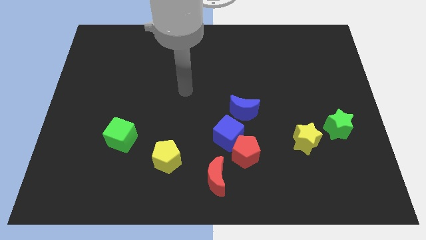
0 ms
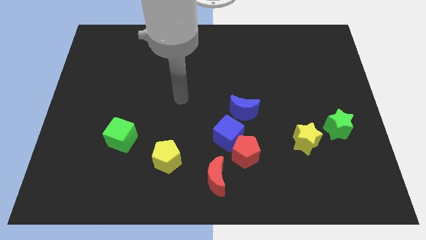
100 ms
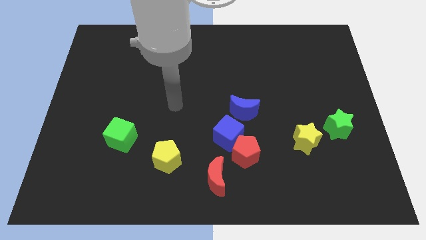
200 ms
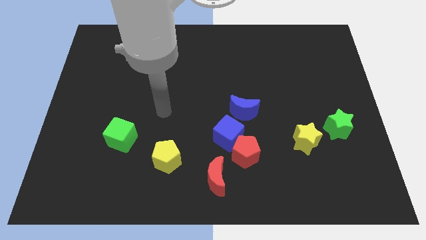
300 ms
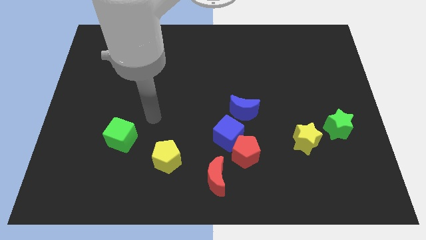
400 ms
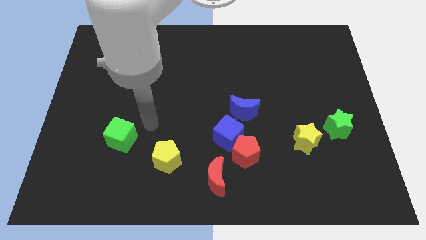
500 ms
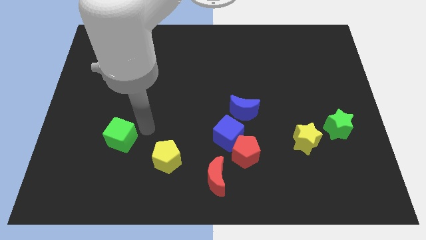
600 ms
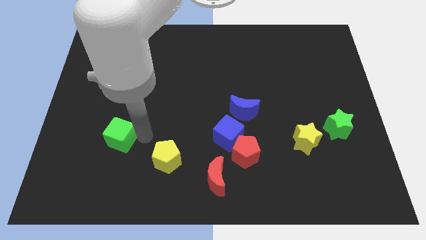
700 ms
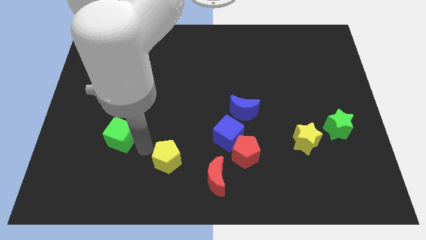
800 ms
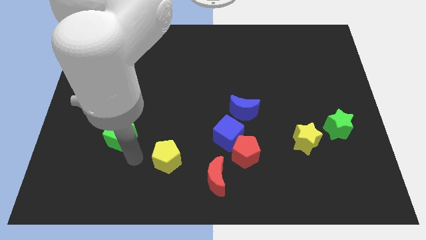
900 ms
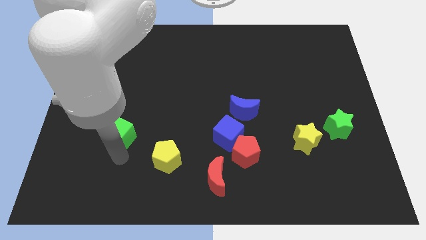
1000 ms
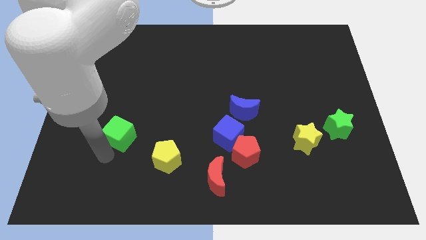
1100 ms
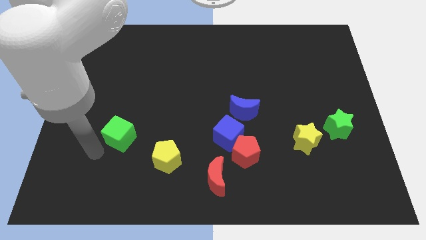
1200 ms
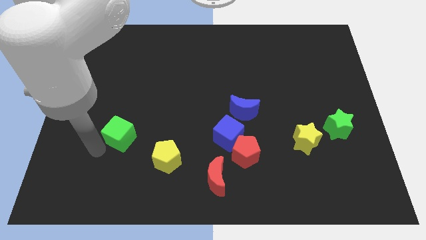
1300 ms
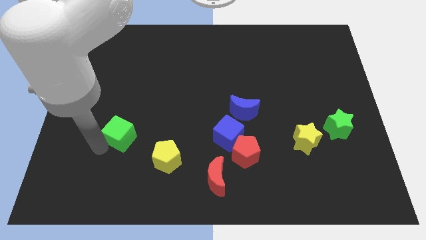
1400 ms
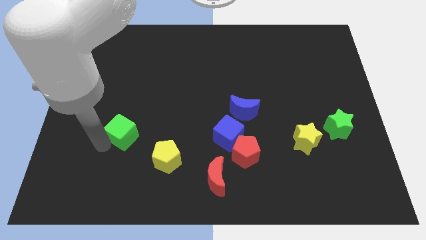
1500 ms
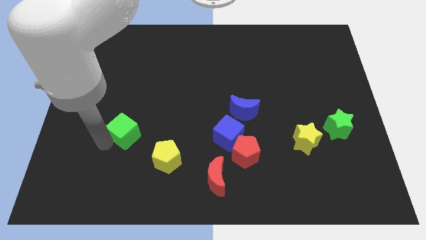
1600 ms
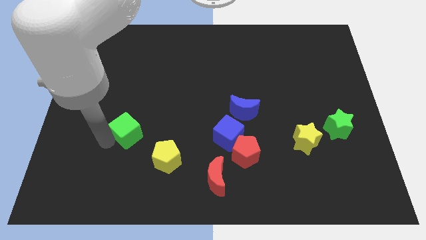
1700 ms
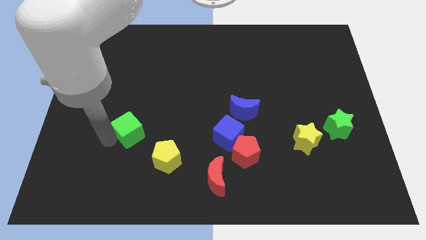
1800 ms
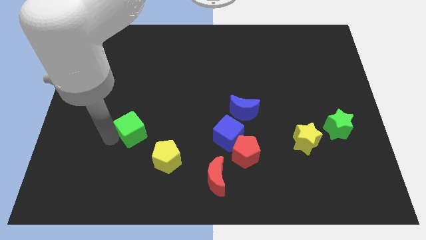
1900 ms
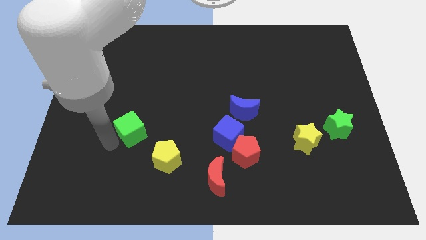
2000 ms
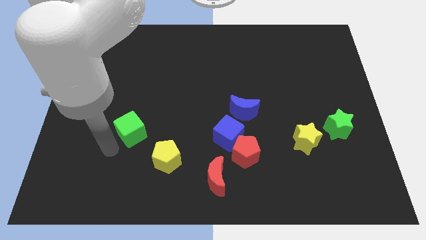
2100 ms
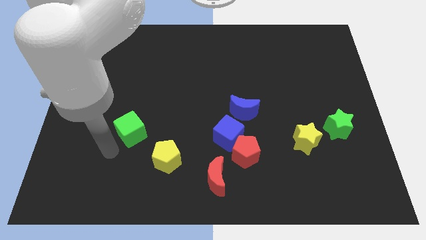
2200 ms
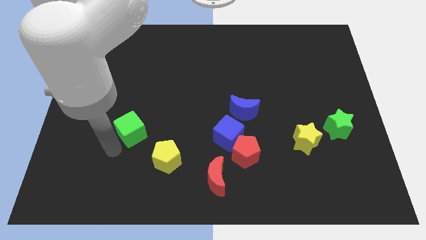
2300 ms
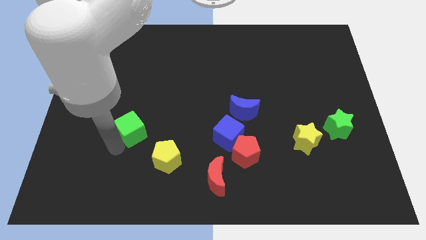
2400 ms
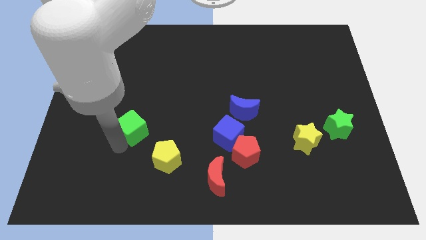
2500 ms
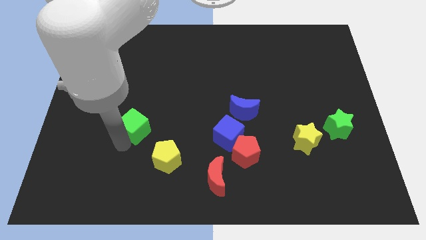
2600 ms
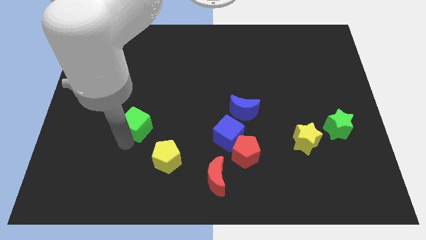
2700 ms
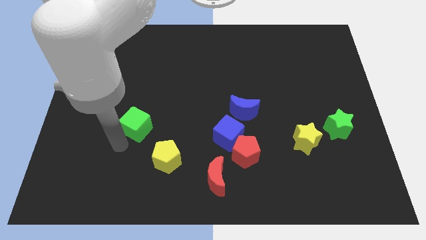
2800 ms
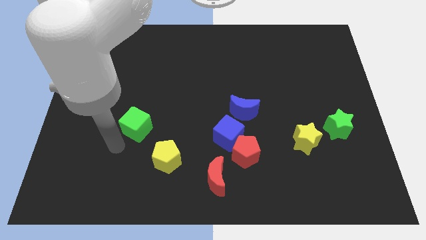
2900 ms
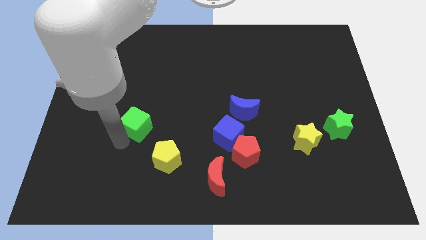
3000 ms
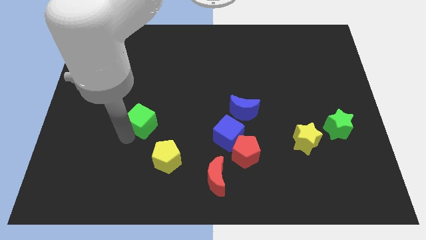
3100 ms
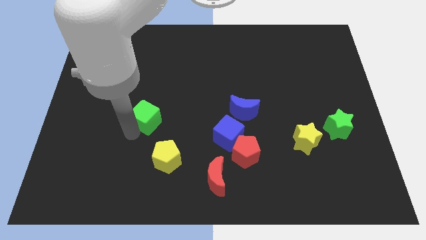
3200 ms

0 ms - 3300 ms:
slightly move the green cube upwards and right diagonally

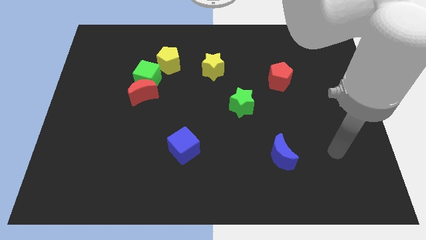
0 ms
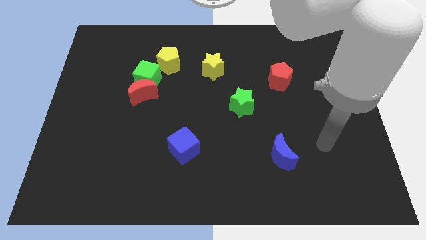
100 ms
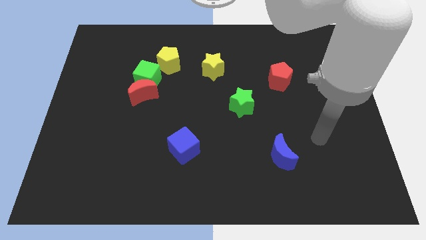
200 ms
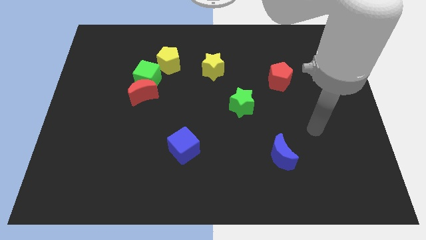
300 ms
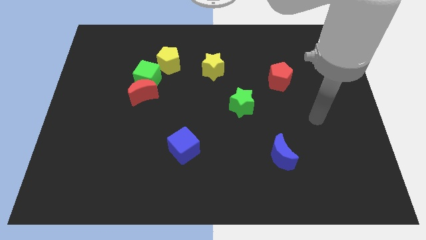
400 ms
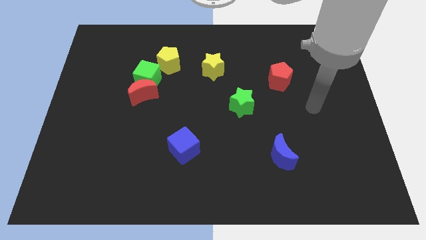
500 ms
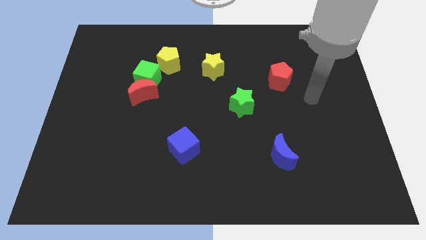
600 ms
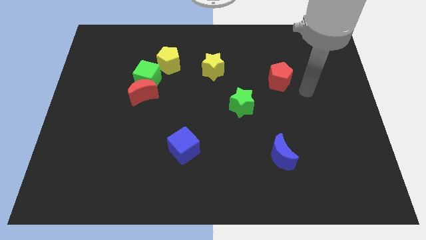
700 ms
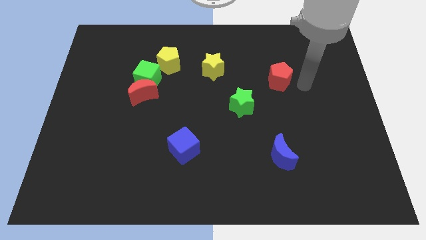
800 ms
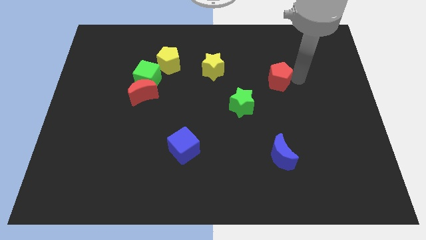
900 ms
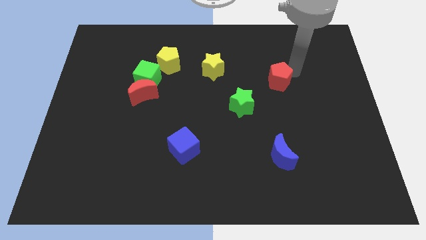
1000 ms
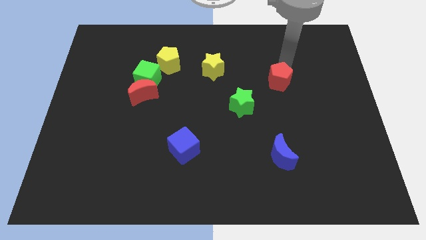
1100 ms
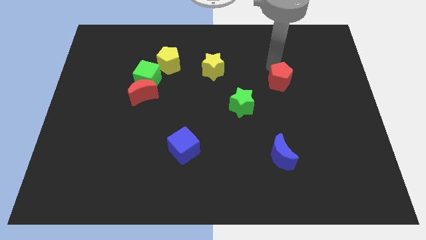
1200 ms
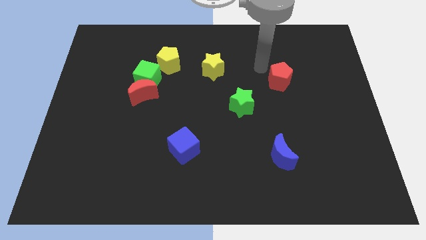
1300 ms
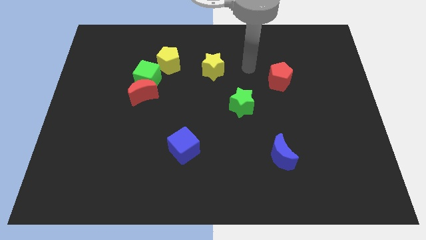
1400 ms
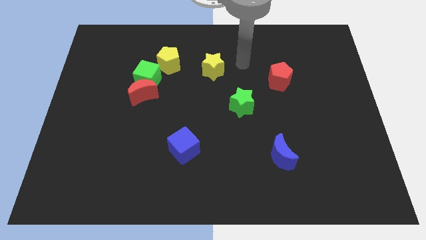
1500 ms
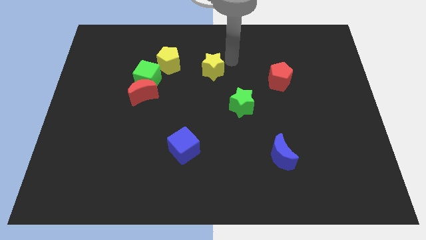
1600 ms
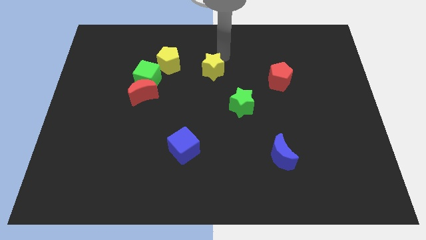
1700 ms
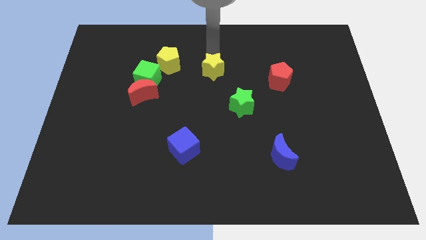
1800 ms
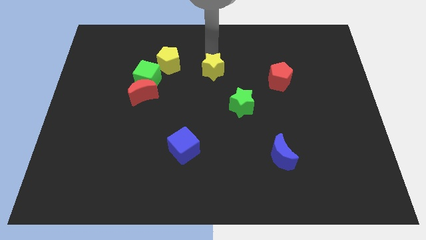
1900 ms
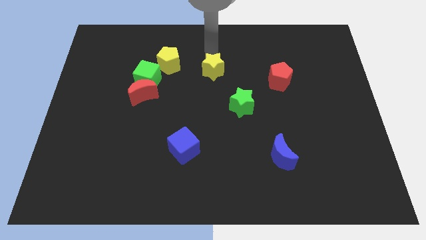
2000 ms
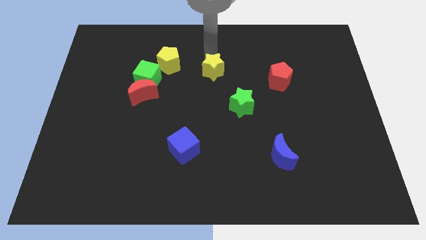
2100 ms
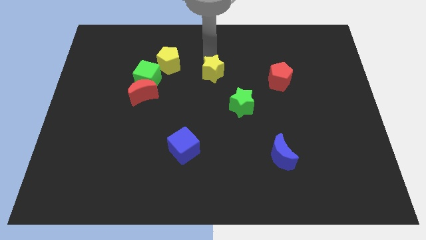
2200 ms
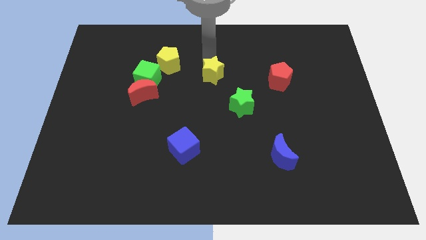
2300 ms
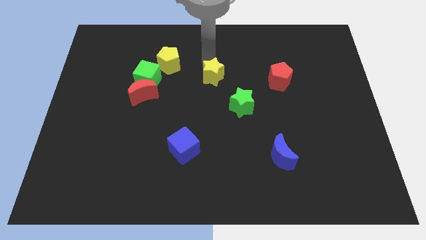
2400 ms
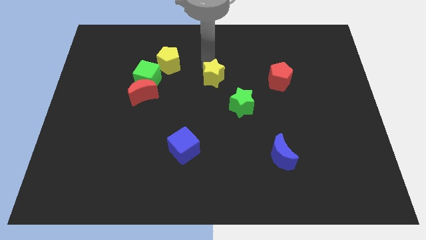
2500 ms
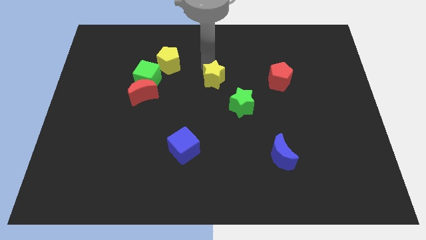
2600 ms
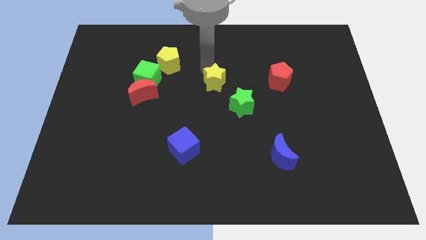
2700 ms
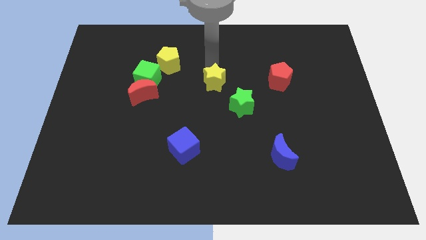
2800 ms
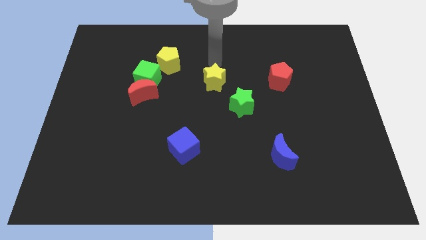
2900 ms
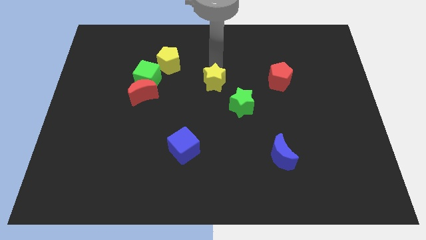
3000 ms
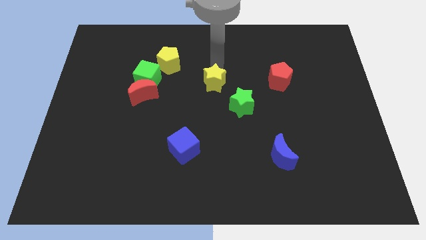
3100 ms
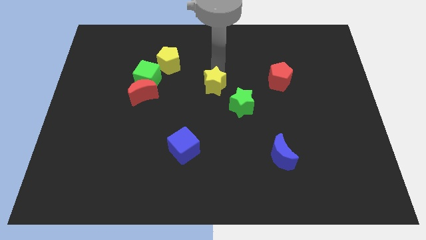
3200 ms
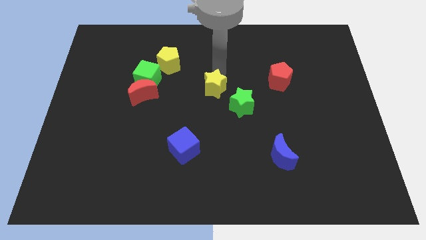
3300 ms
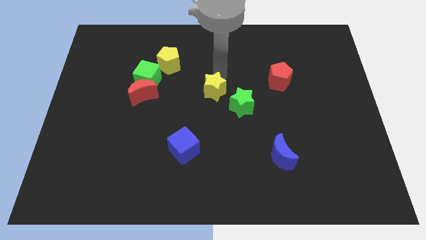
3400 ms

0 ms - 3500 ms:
slide the yellow star down slightly

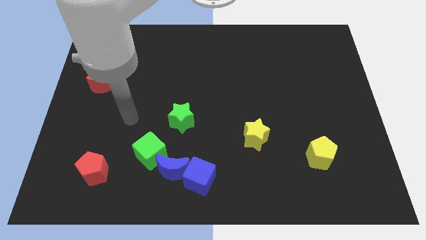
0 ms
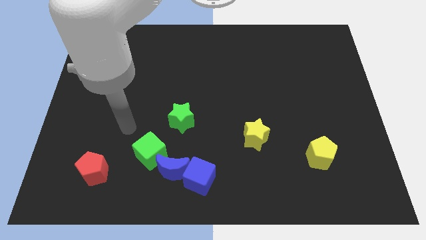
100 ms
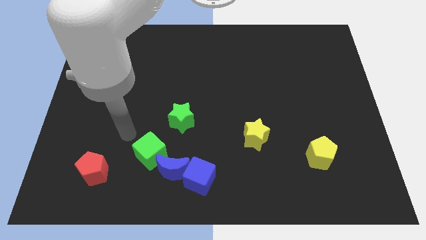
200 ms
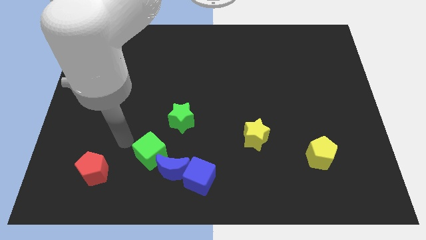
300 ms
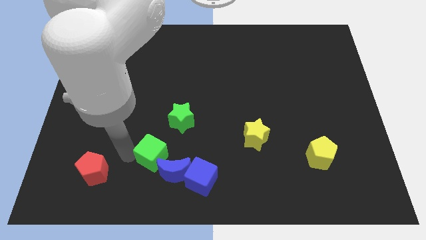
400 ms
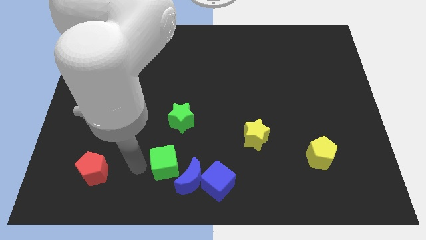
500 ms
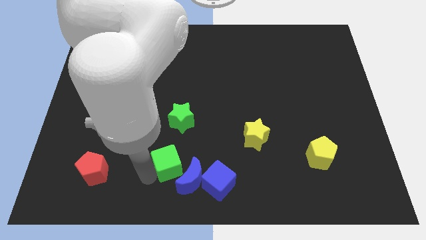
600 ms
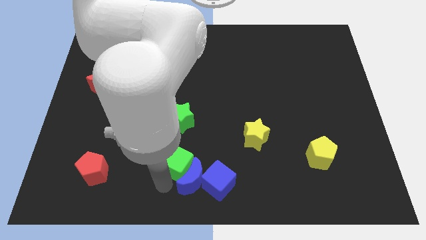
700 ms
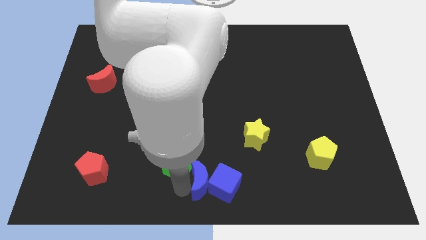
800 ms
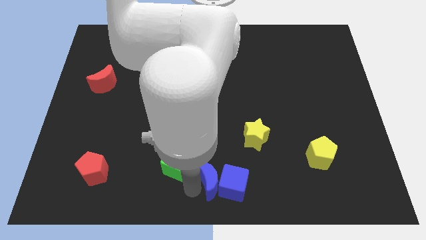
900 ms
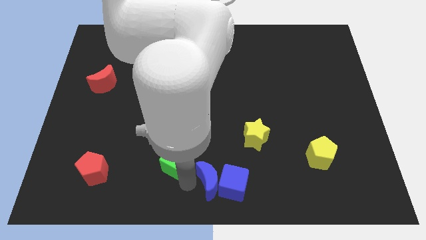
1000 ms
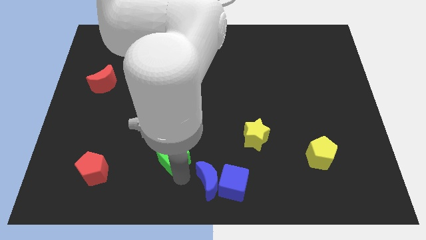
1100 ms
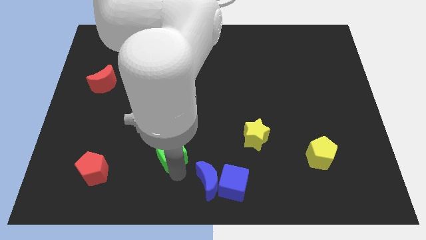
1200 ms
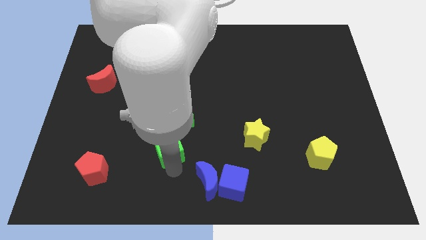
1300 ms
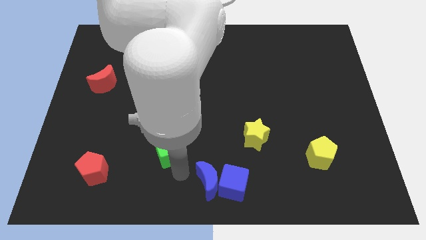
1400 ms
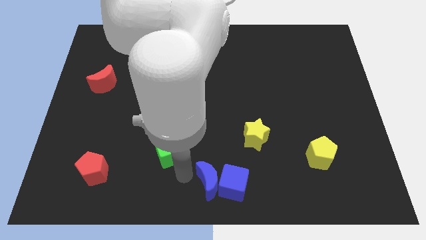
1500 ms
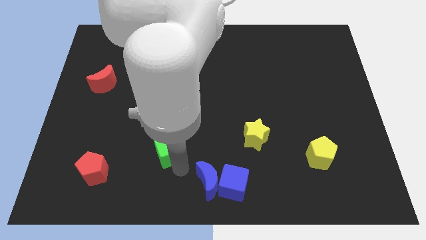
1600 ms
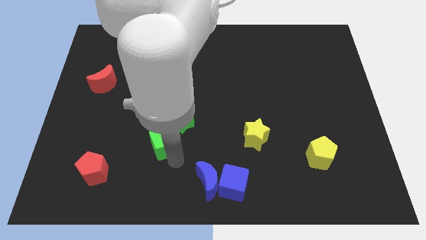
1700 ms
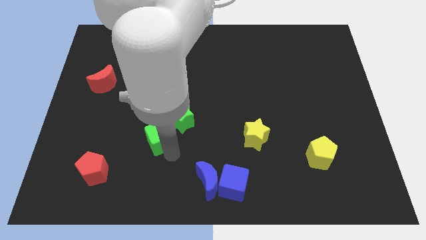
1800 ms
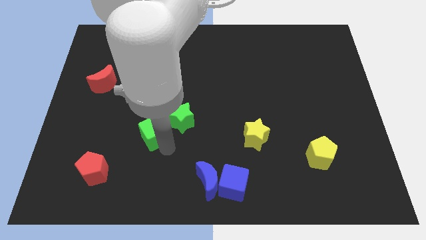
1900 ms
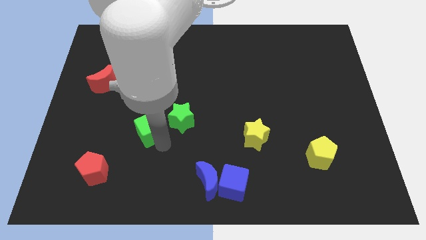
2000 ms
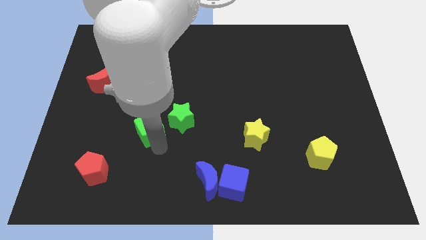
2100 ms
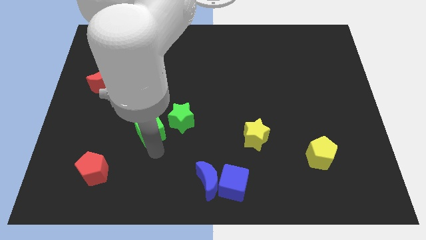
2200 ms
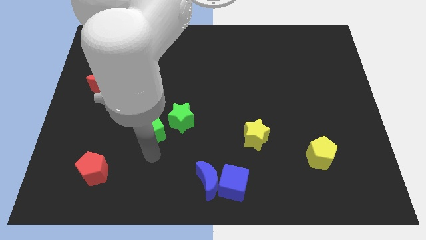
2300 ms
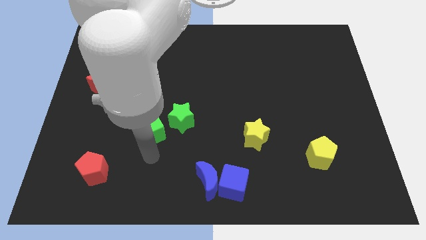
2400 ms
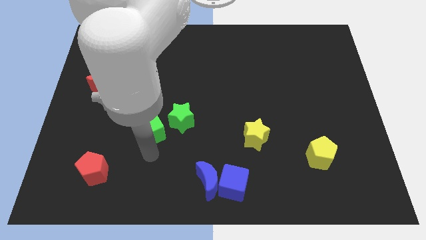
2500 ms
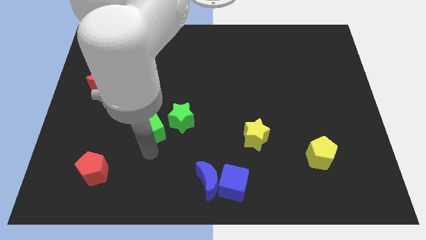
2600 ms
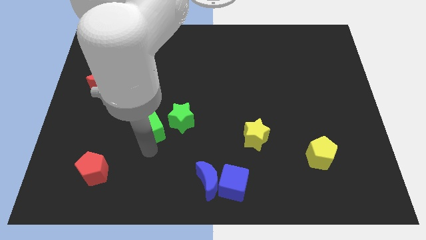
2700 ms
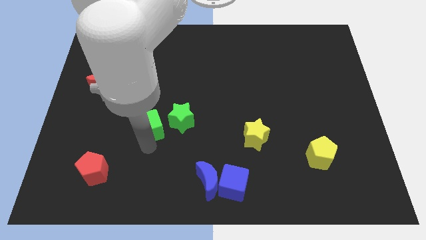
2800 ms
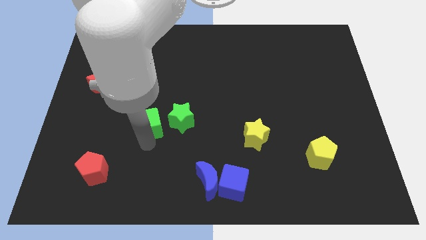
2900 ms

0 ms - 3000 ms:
slide the green cube a little up
